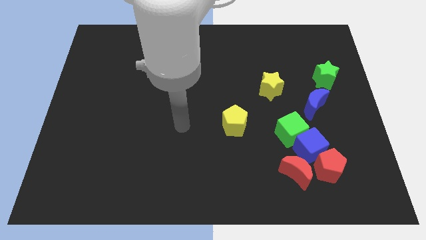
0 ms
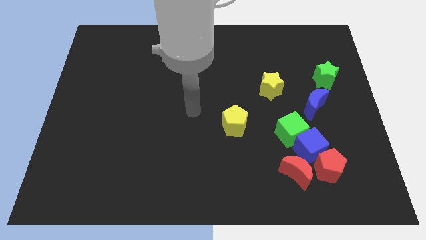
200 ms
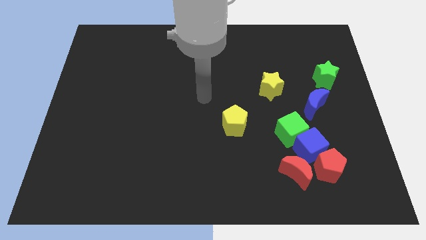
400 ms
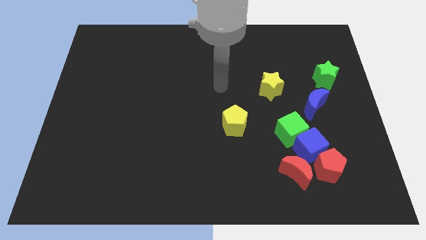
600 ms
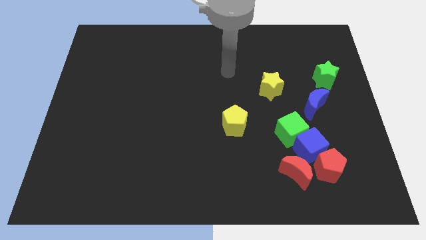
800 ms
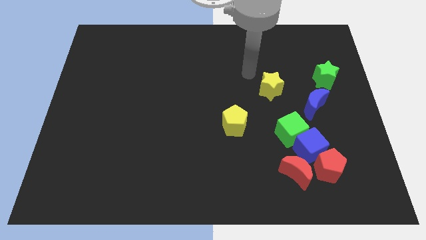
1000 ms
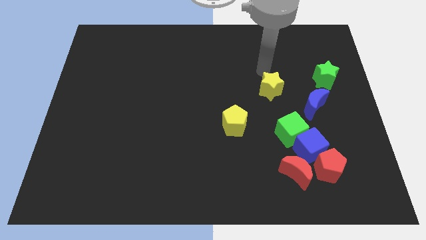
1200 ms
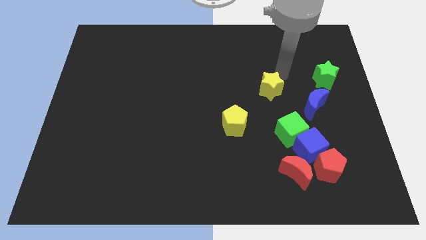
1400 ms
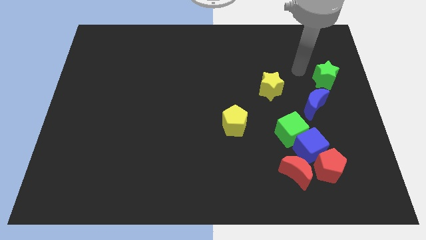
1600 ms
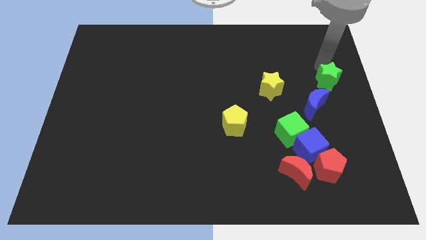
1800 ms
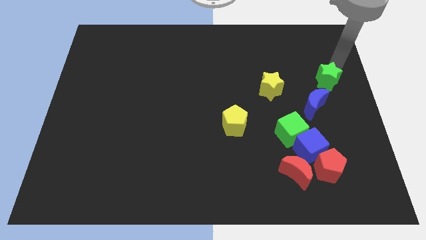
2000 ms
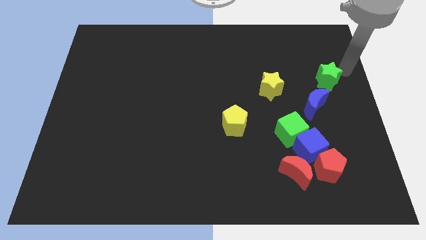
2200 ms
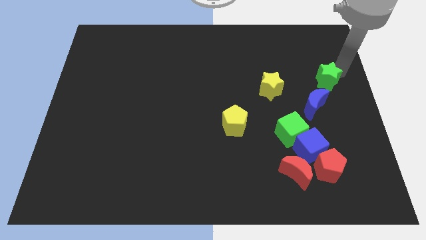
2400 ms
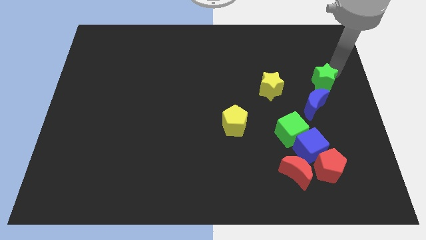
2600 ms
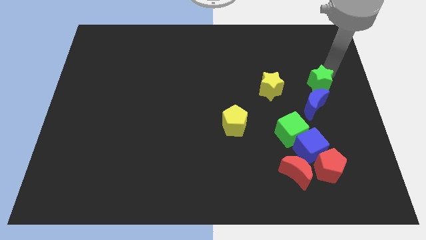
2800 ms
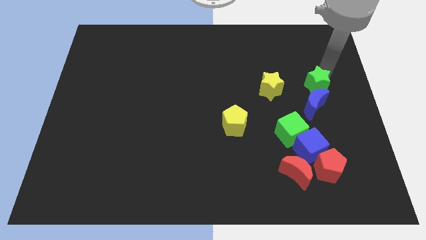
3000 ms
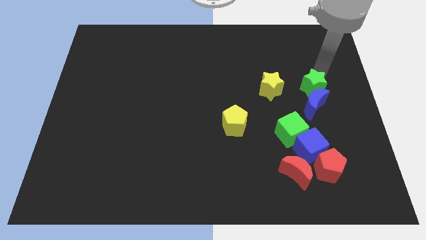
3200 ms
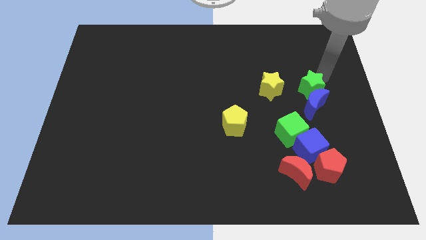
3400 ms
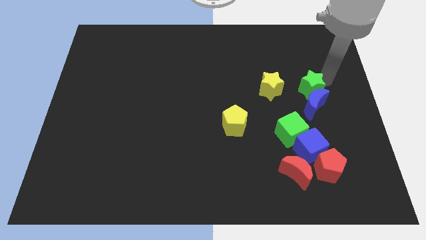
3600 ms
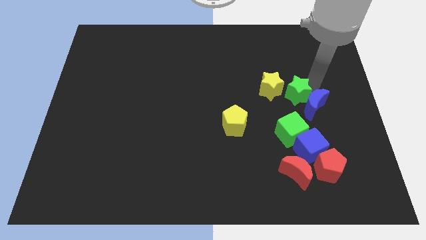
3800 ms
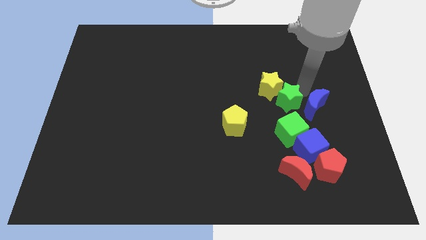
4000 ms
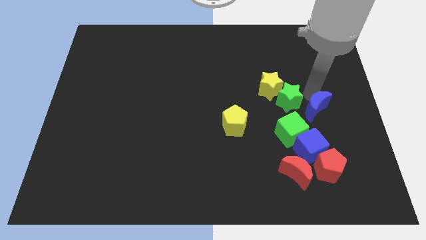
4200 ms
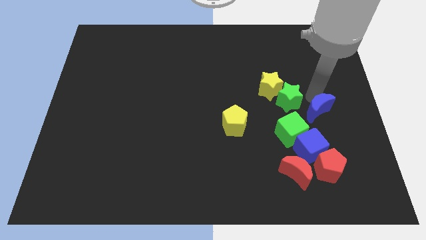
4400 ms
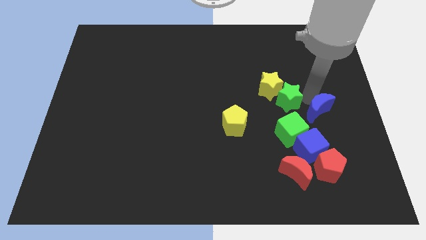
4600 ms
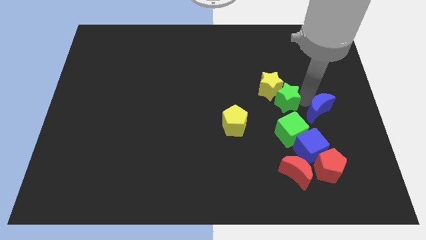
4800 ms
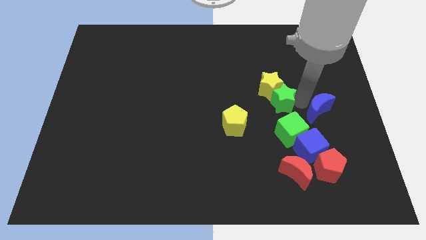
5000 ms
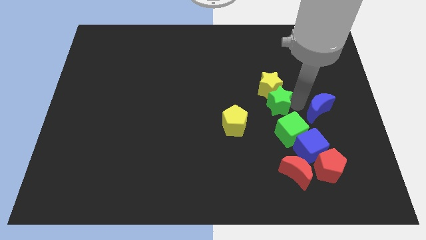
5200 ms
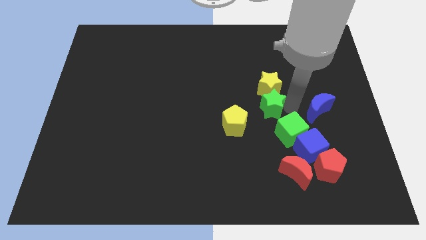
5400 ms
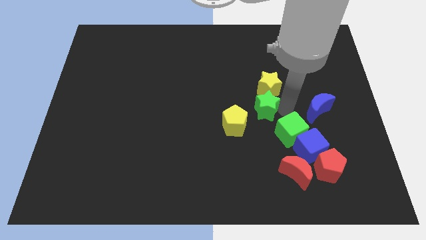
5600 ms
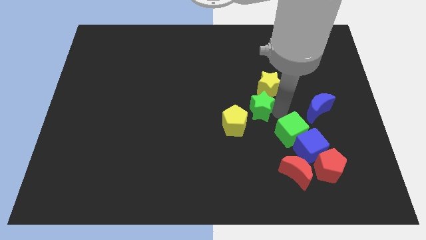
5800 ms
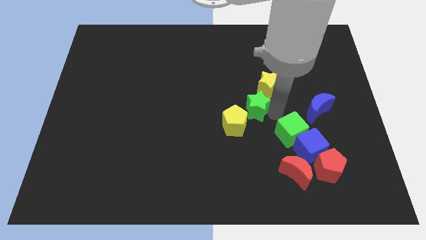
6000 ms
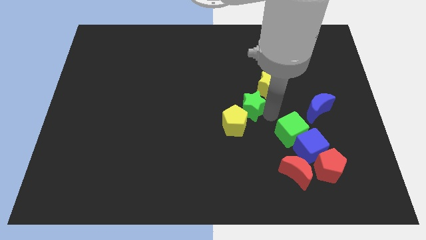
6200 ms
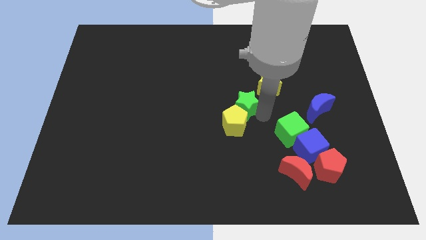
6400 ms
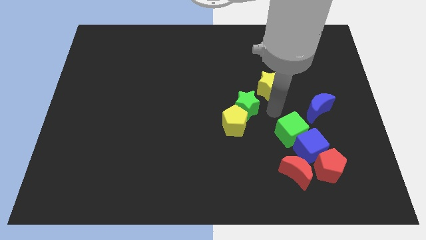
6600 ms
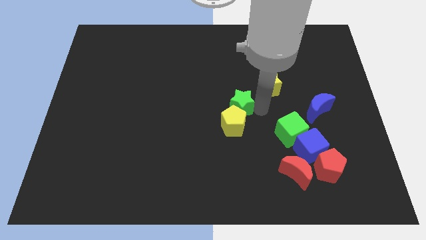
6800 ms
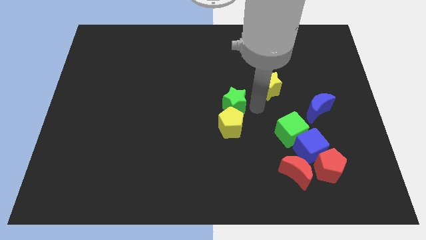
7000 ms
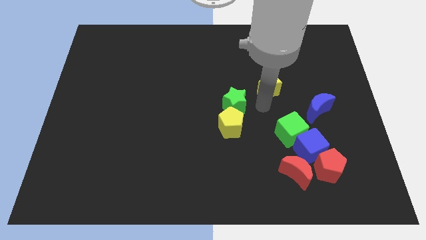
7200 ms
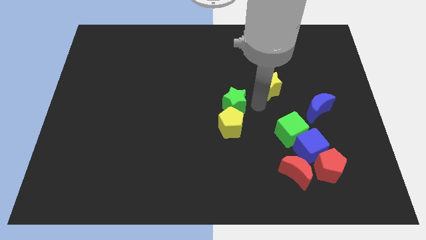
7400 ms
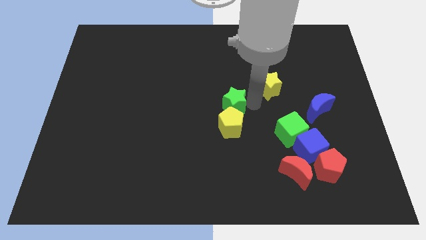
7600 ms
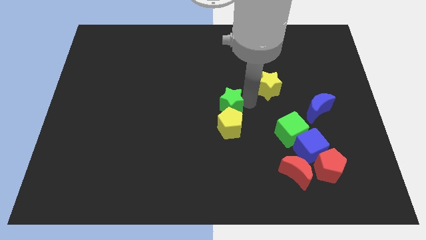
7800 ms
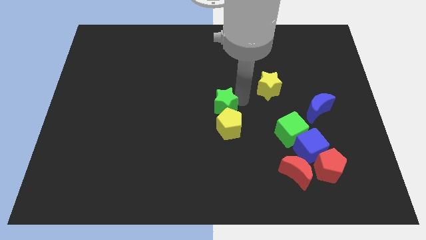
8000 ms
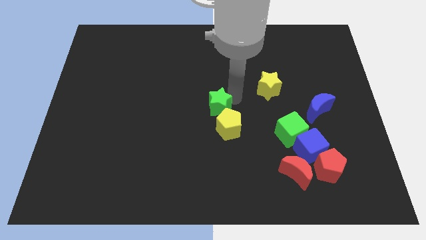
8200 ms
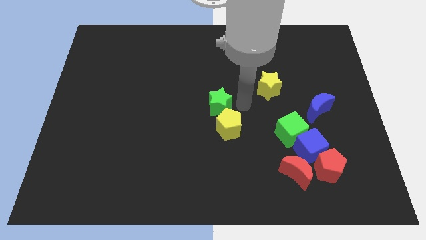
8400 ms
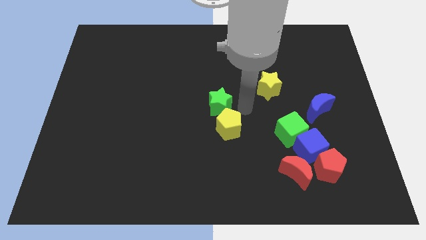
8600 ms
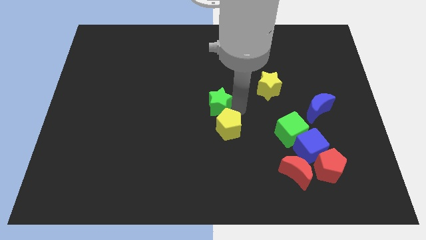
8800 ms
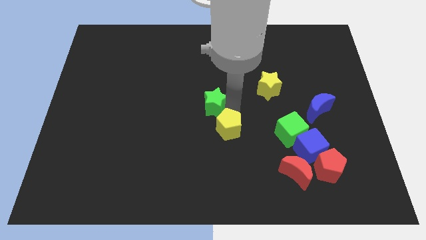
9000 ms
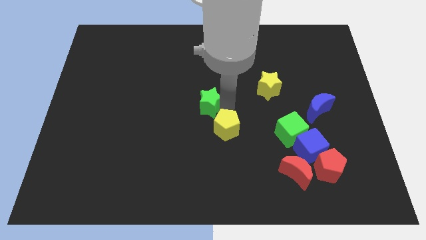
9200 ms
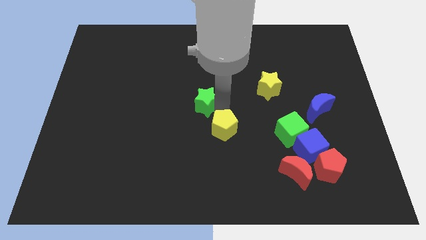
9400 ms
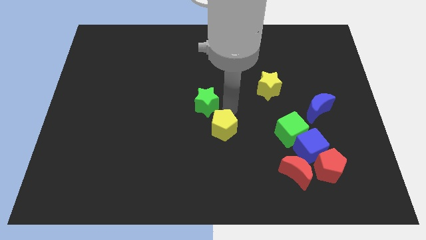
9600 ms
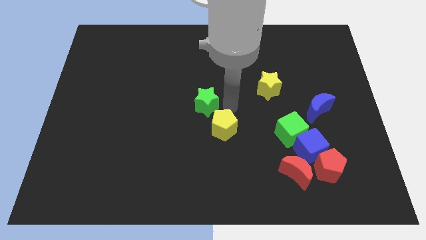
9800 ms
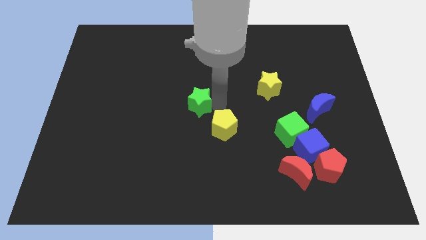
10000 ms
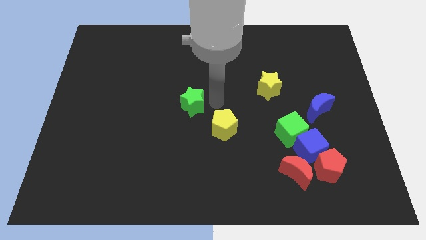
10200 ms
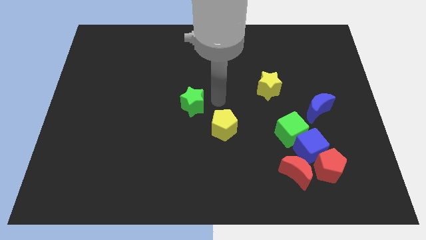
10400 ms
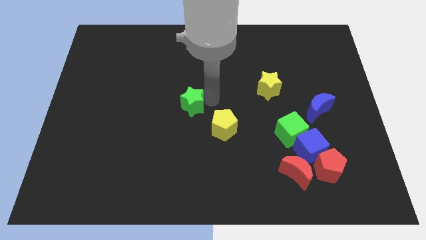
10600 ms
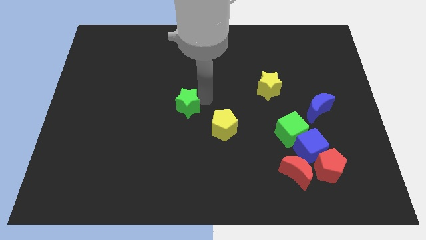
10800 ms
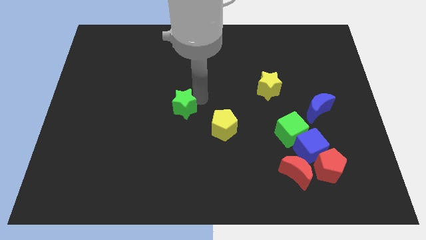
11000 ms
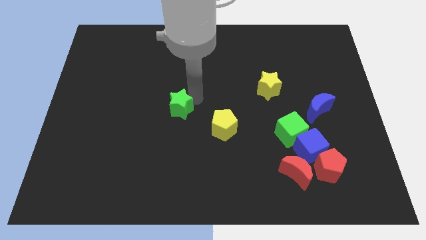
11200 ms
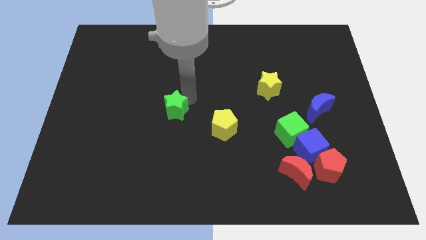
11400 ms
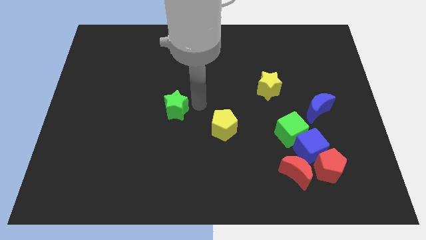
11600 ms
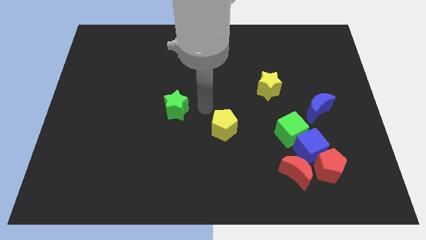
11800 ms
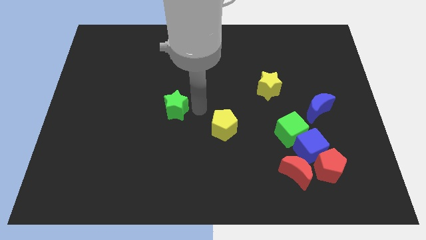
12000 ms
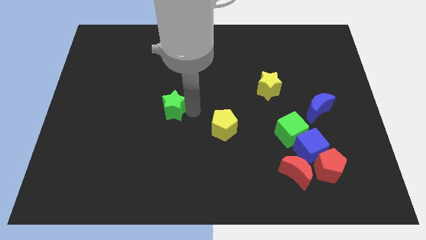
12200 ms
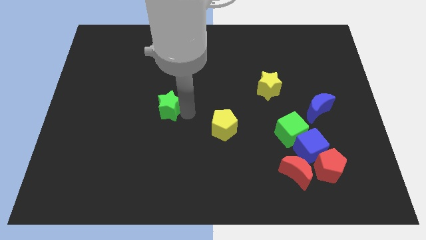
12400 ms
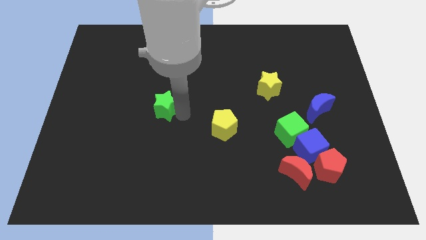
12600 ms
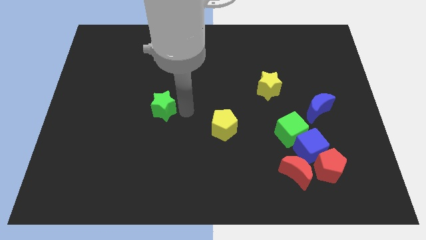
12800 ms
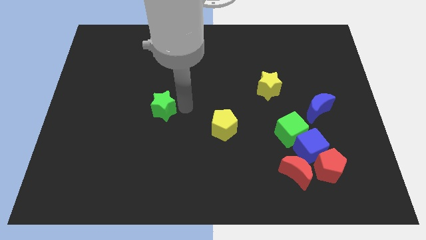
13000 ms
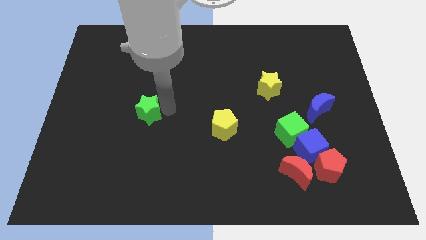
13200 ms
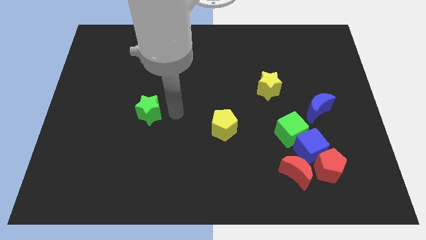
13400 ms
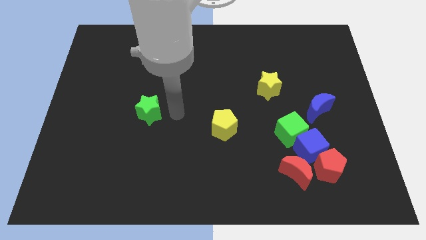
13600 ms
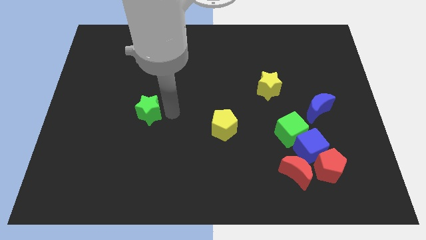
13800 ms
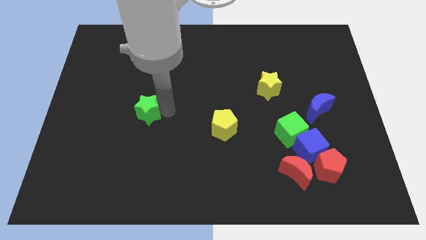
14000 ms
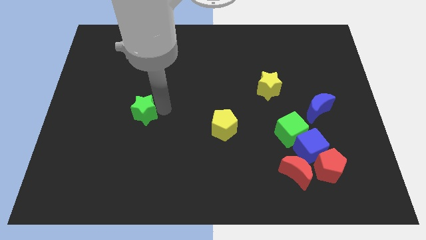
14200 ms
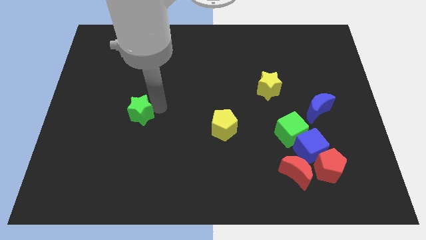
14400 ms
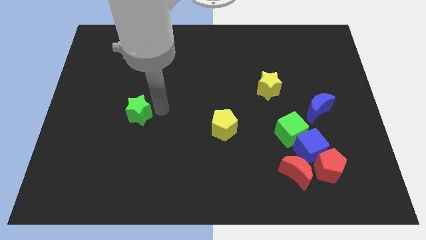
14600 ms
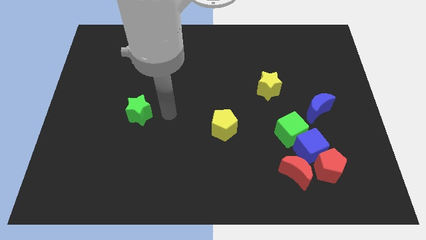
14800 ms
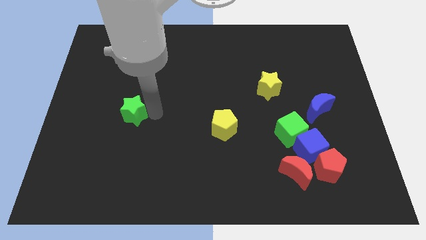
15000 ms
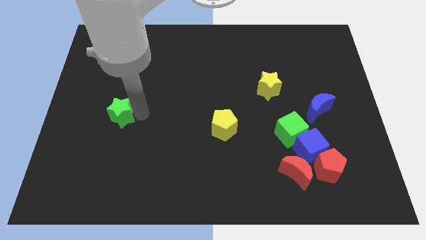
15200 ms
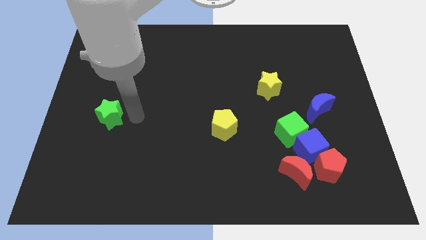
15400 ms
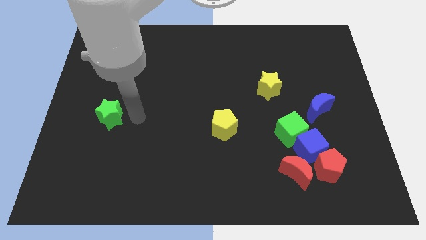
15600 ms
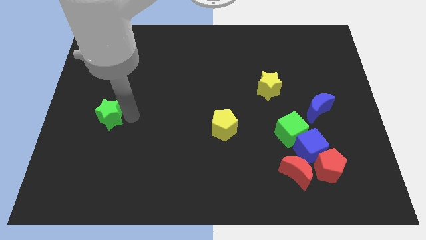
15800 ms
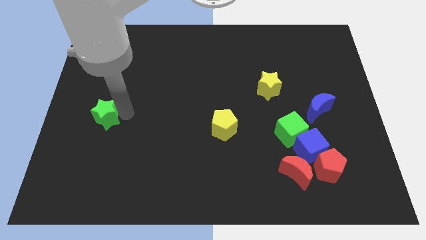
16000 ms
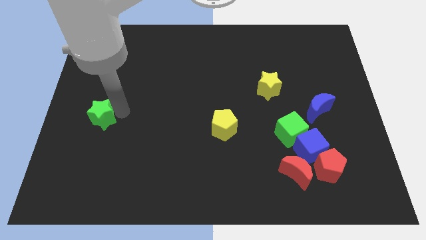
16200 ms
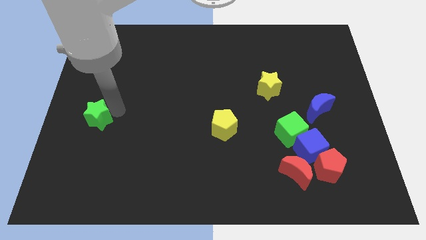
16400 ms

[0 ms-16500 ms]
move the green star to the left side of the board

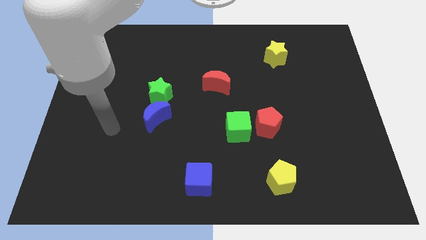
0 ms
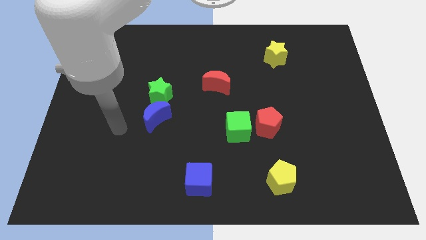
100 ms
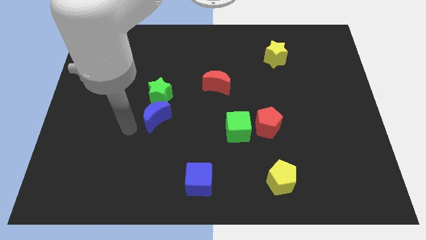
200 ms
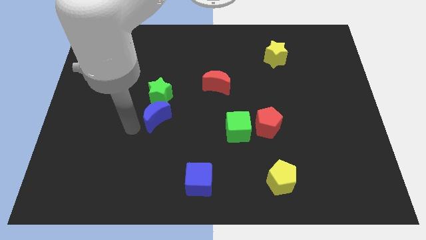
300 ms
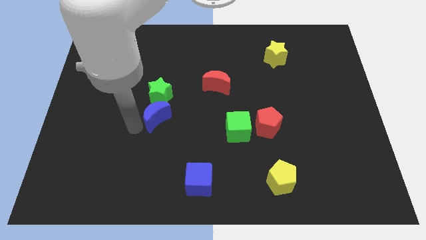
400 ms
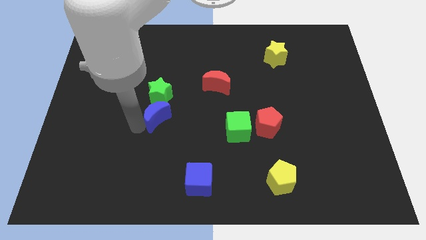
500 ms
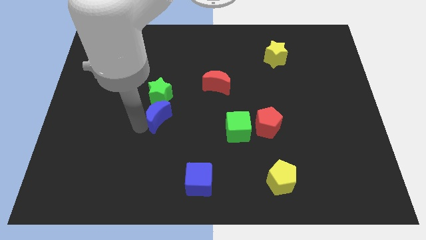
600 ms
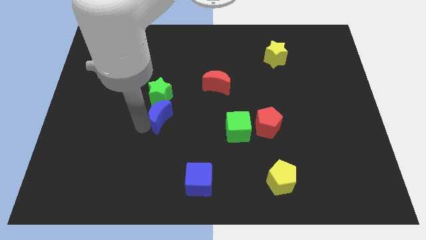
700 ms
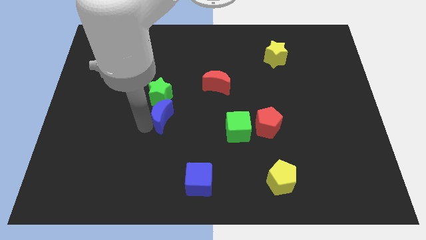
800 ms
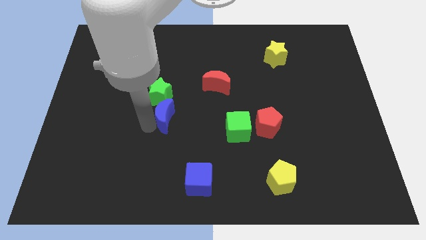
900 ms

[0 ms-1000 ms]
put the blue moon to the middle
